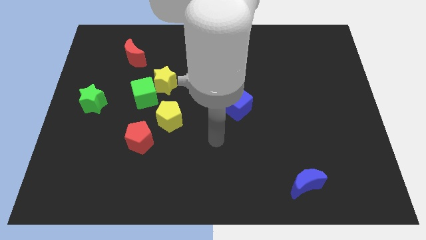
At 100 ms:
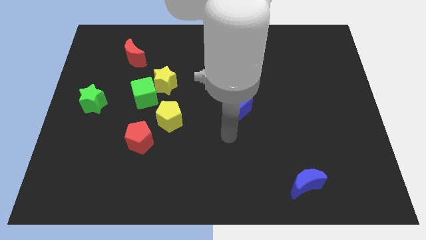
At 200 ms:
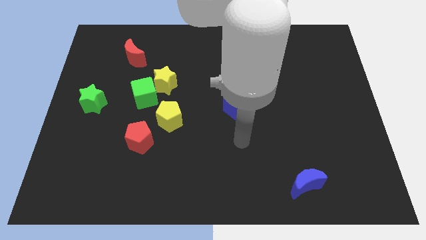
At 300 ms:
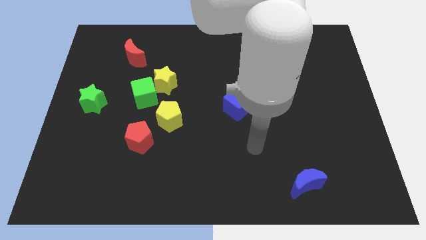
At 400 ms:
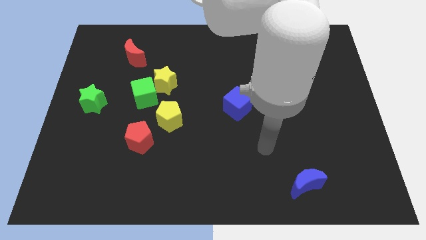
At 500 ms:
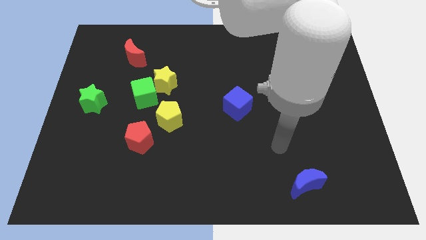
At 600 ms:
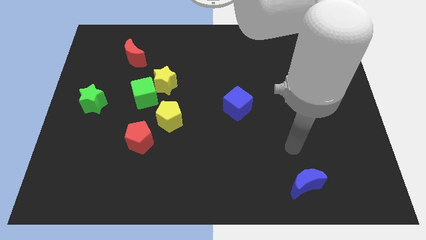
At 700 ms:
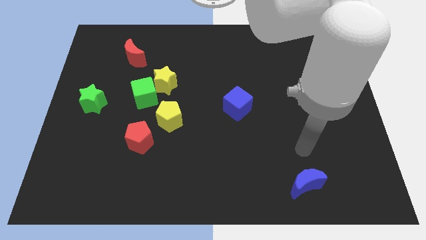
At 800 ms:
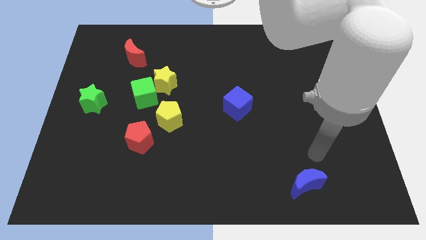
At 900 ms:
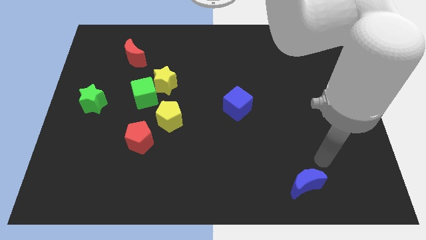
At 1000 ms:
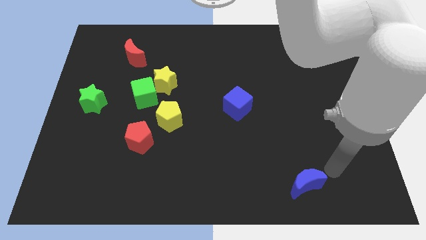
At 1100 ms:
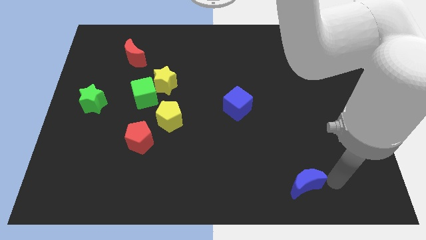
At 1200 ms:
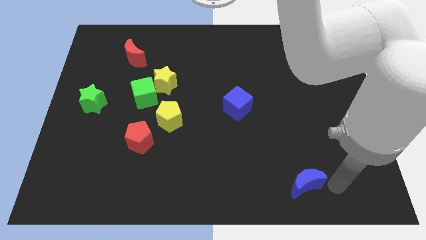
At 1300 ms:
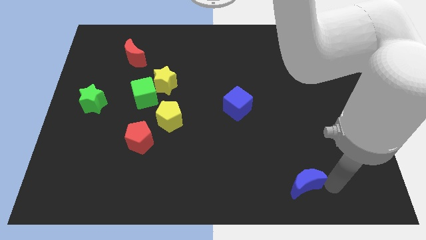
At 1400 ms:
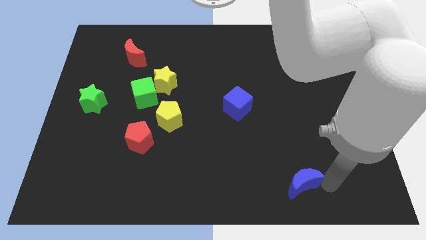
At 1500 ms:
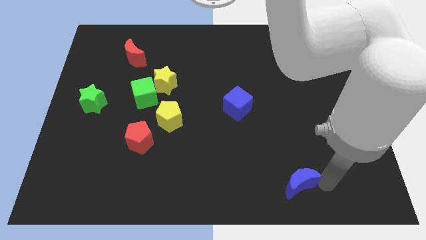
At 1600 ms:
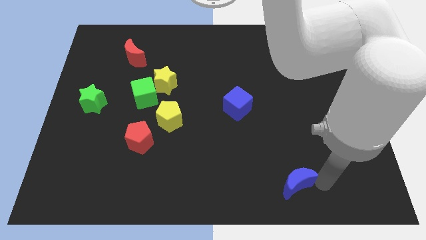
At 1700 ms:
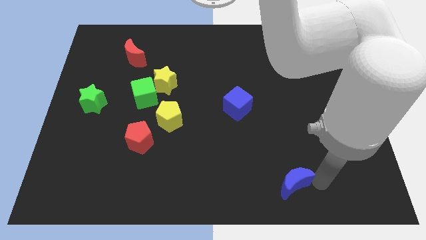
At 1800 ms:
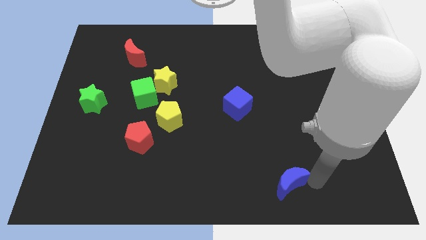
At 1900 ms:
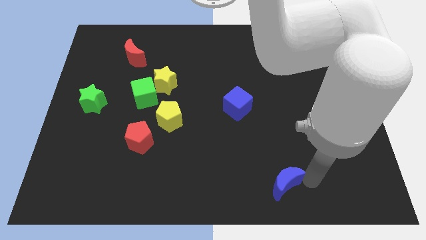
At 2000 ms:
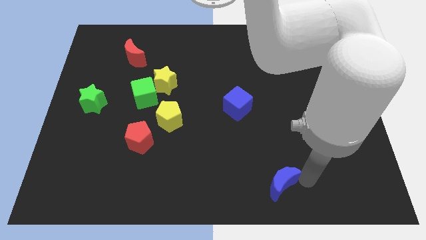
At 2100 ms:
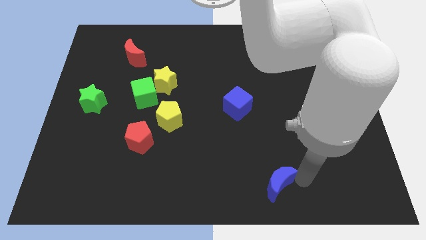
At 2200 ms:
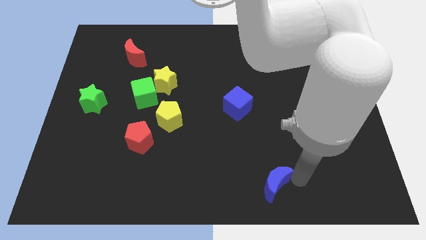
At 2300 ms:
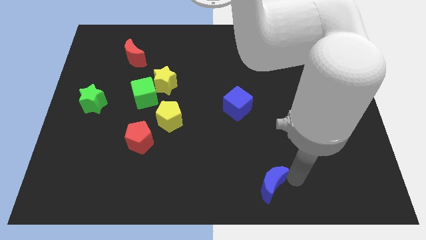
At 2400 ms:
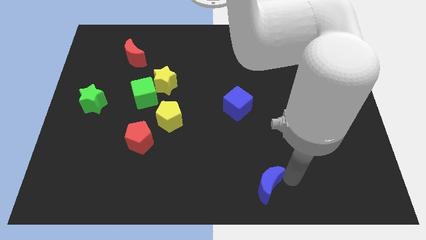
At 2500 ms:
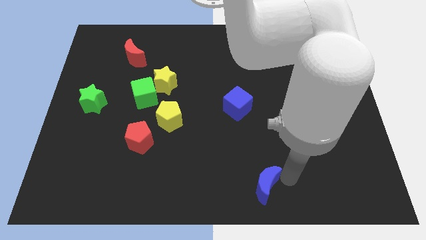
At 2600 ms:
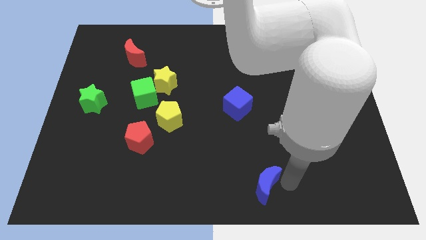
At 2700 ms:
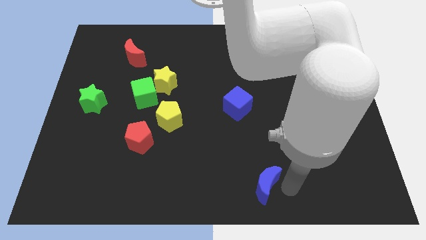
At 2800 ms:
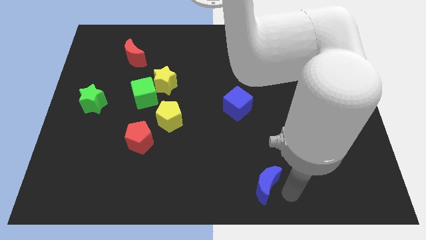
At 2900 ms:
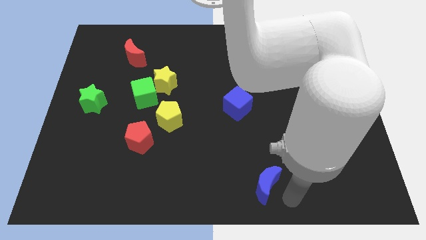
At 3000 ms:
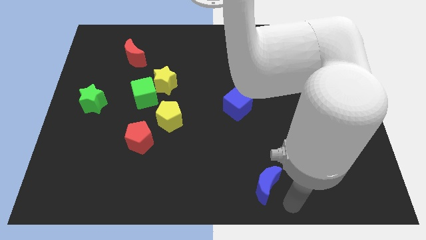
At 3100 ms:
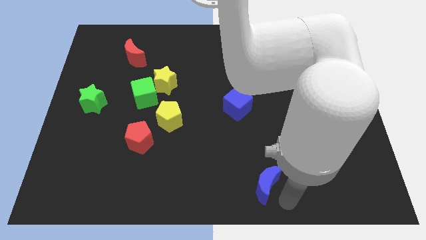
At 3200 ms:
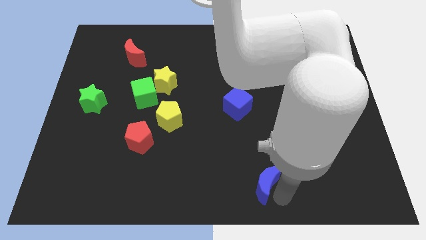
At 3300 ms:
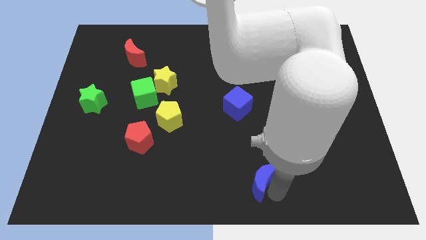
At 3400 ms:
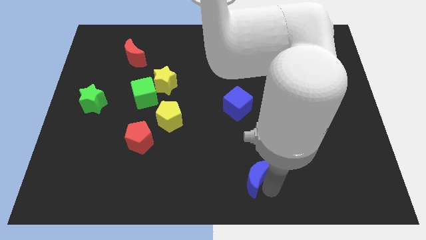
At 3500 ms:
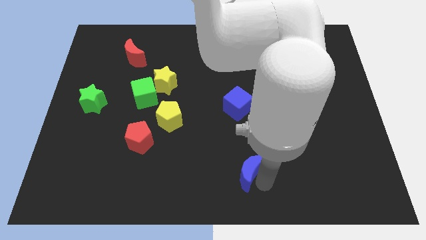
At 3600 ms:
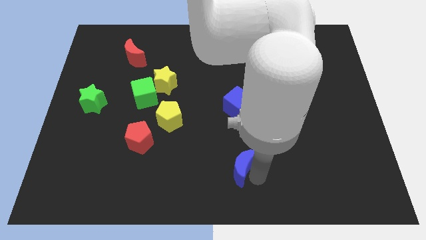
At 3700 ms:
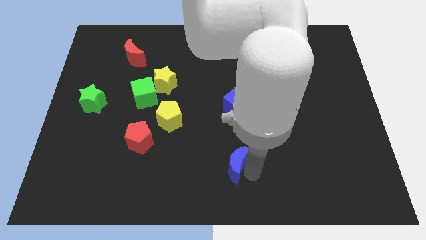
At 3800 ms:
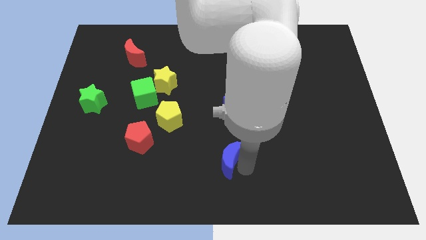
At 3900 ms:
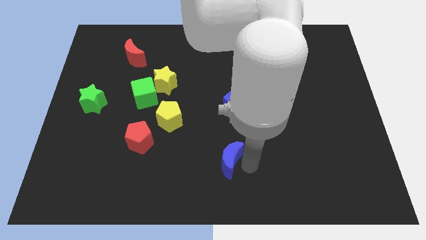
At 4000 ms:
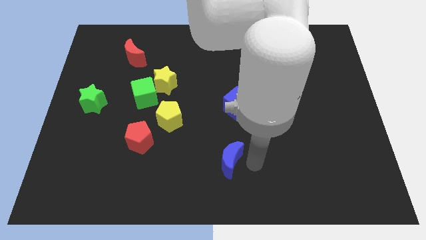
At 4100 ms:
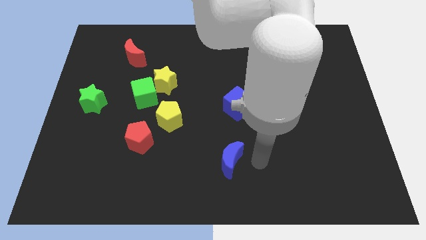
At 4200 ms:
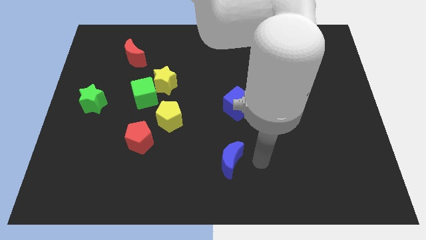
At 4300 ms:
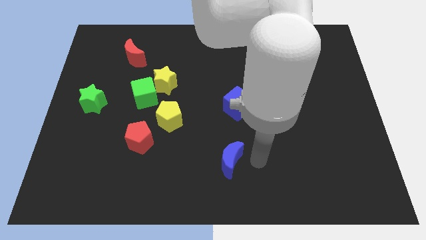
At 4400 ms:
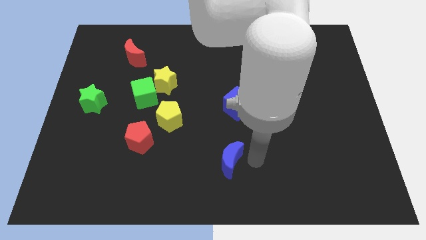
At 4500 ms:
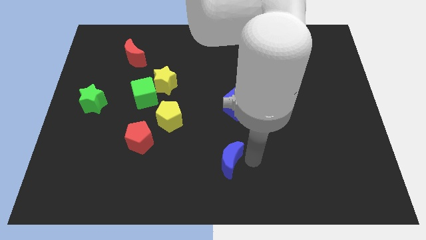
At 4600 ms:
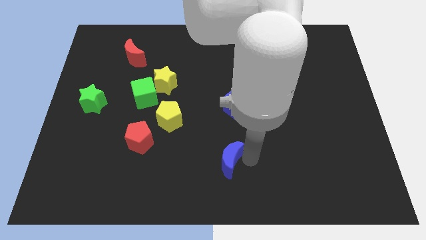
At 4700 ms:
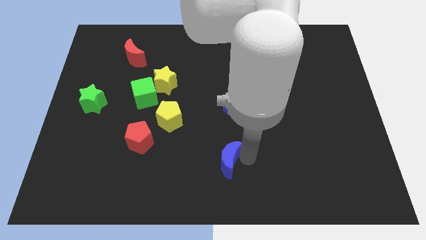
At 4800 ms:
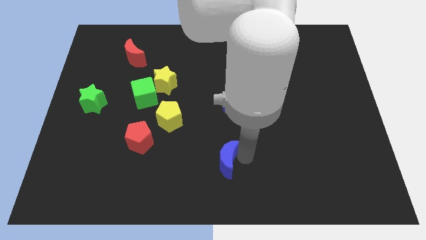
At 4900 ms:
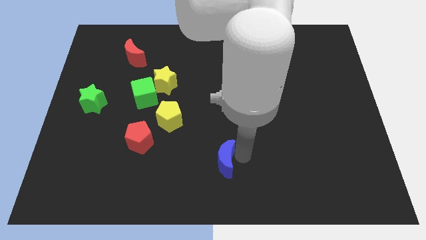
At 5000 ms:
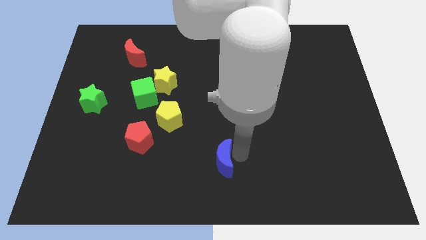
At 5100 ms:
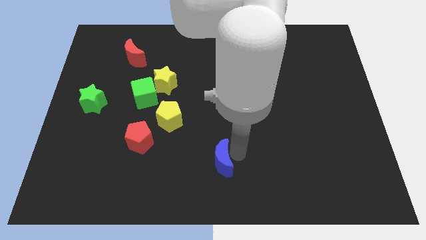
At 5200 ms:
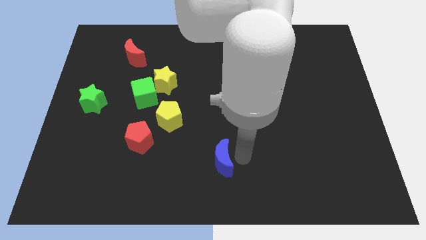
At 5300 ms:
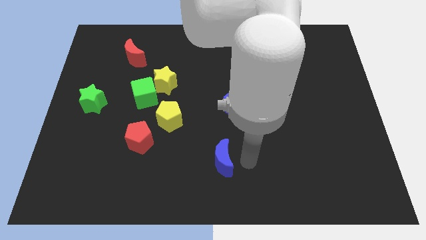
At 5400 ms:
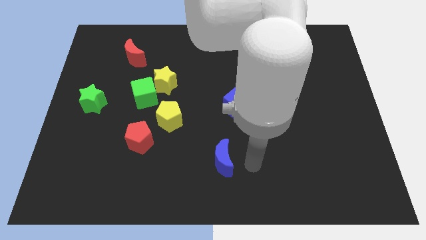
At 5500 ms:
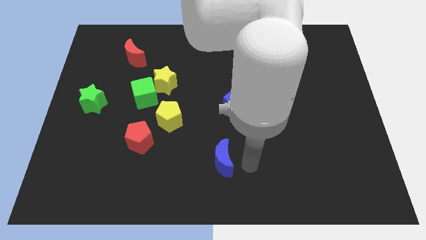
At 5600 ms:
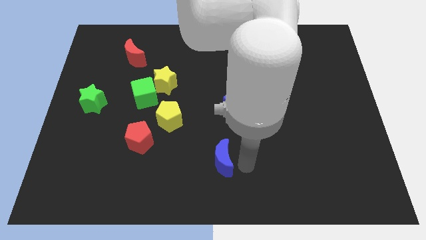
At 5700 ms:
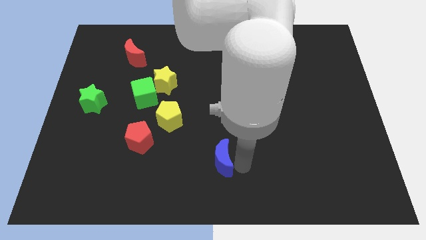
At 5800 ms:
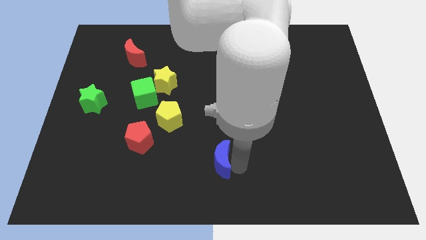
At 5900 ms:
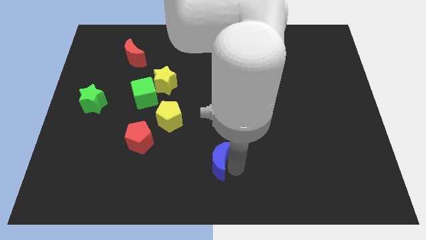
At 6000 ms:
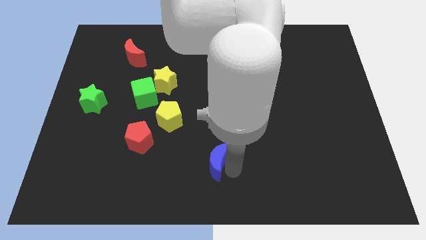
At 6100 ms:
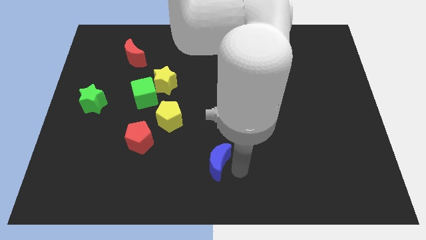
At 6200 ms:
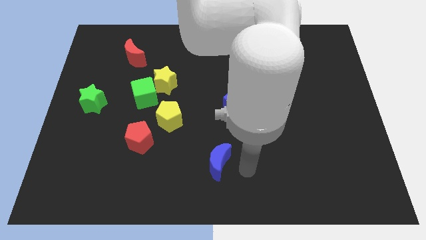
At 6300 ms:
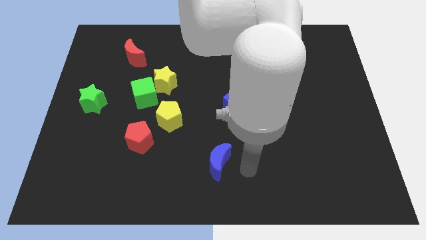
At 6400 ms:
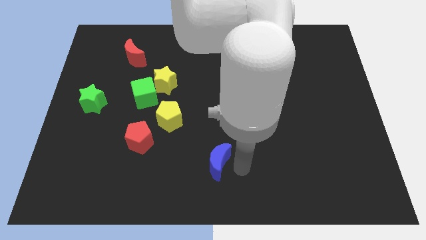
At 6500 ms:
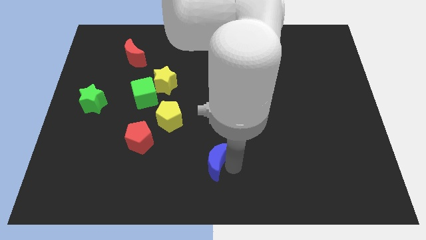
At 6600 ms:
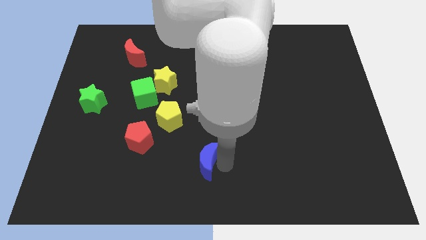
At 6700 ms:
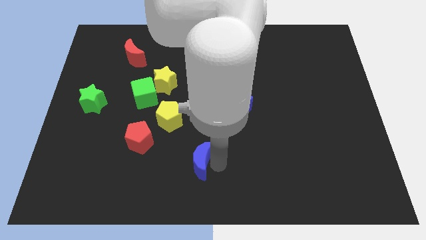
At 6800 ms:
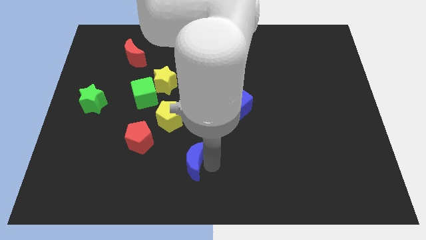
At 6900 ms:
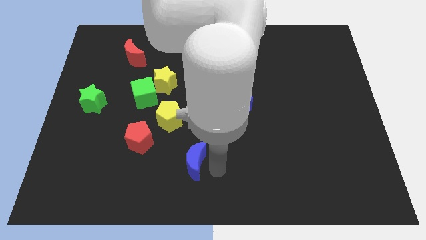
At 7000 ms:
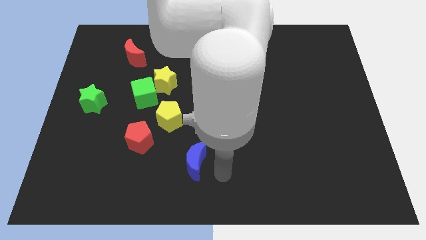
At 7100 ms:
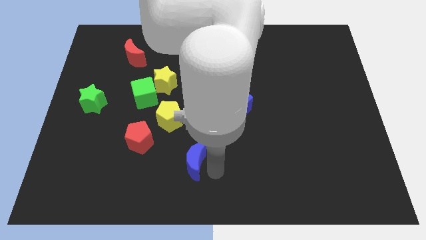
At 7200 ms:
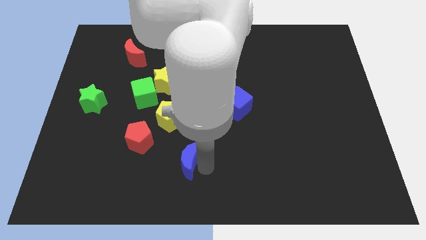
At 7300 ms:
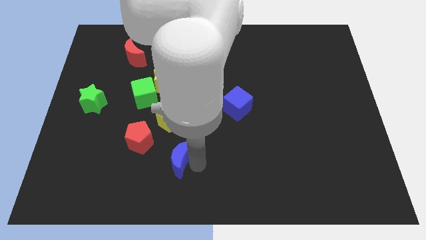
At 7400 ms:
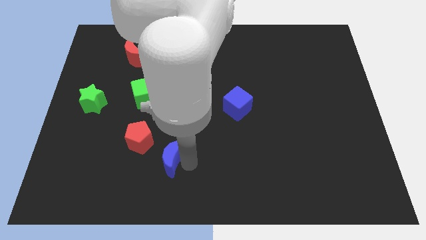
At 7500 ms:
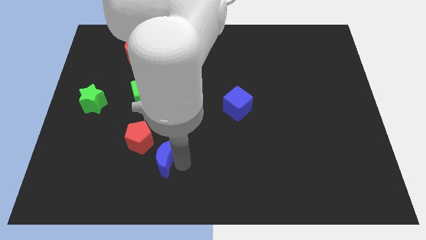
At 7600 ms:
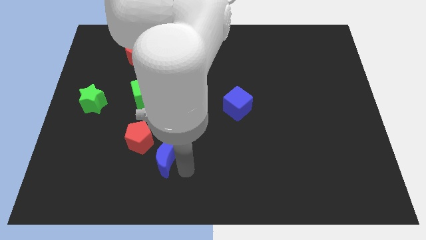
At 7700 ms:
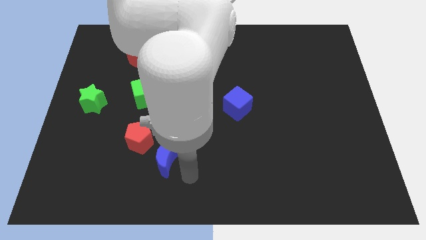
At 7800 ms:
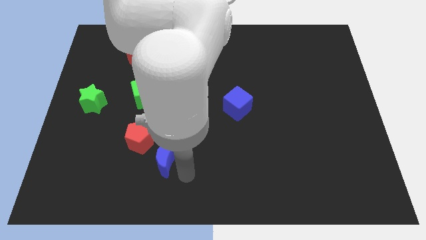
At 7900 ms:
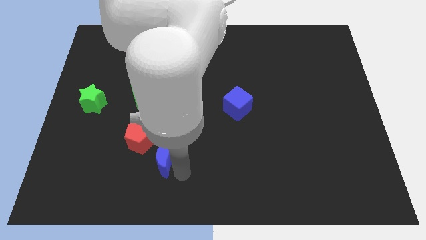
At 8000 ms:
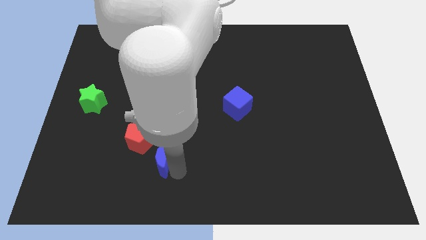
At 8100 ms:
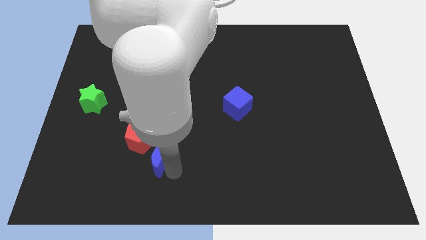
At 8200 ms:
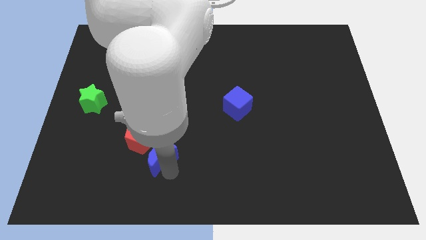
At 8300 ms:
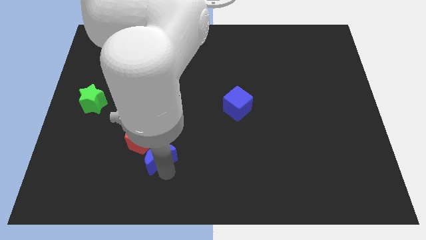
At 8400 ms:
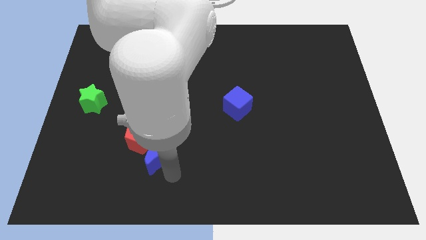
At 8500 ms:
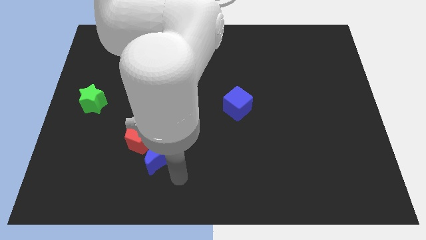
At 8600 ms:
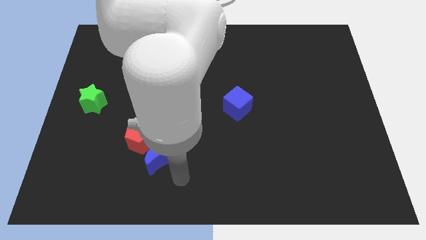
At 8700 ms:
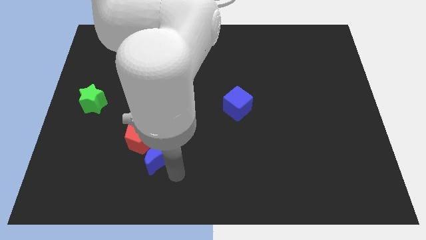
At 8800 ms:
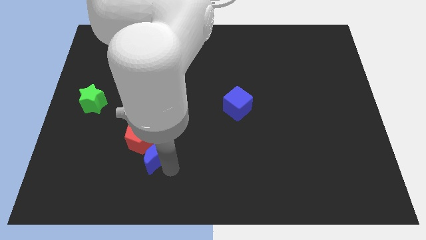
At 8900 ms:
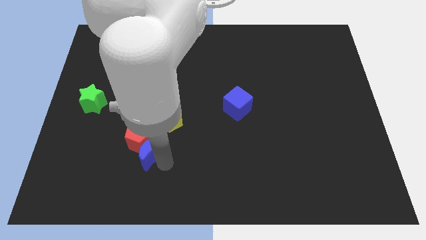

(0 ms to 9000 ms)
slide the blue moon close to the red pentagon
